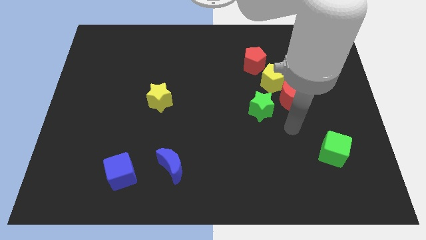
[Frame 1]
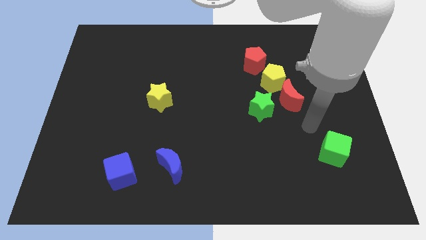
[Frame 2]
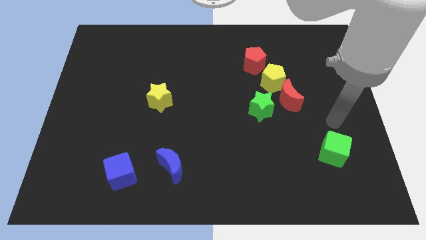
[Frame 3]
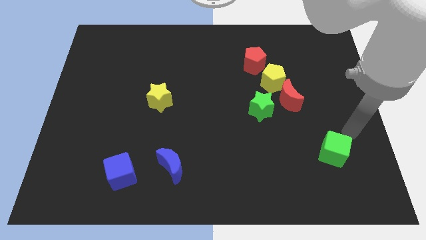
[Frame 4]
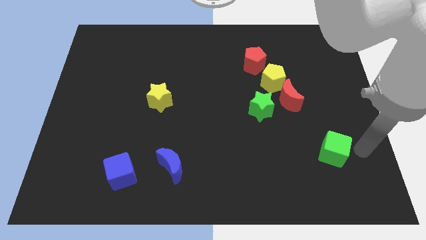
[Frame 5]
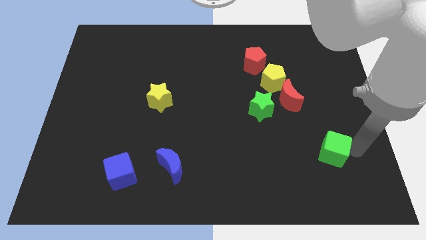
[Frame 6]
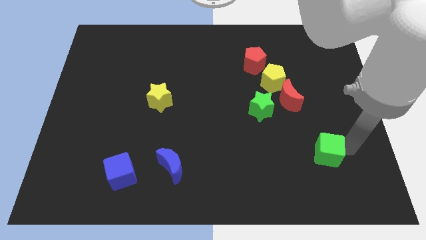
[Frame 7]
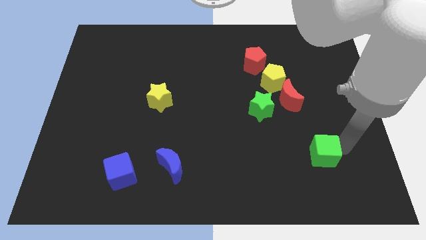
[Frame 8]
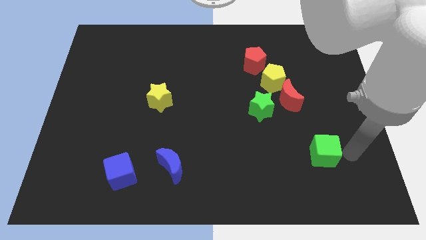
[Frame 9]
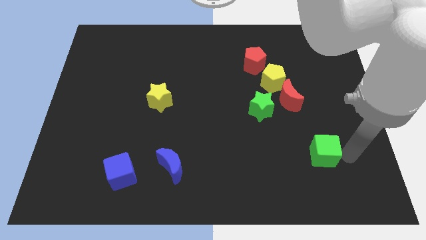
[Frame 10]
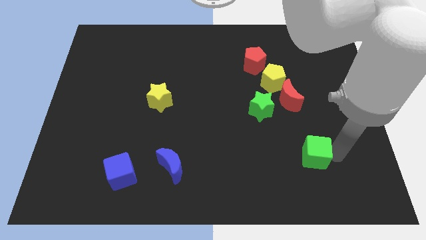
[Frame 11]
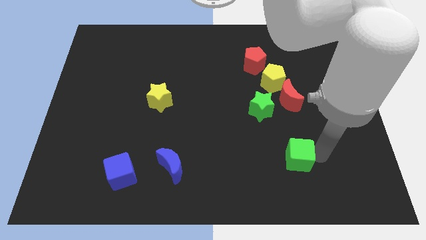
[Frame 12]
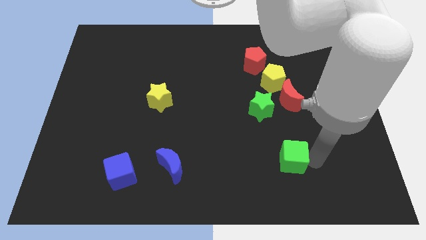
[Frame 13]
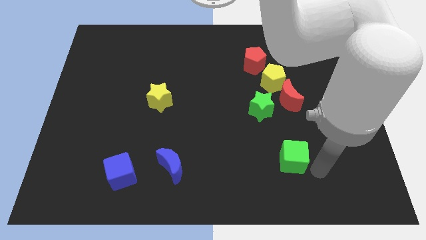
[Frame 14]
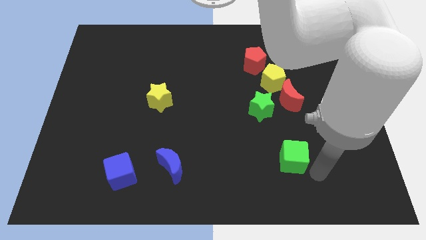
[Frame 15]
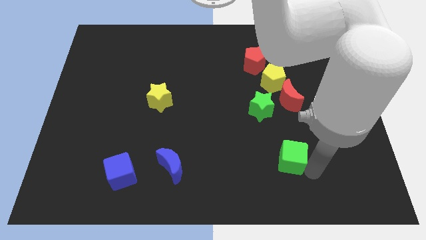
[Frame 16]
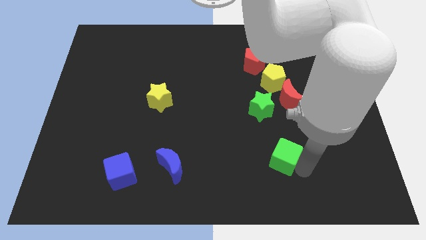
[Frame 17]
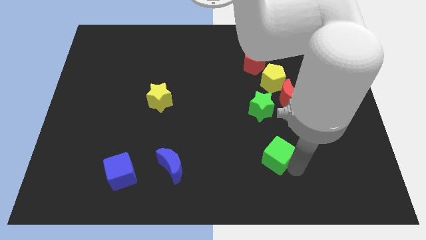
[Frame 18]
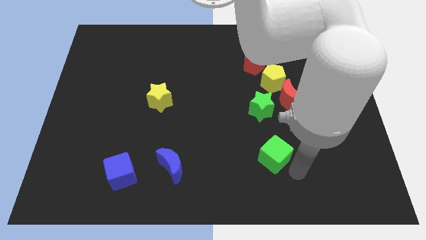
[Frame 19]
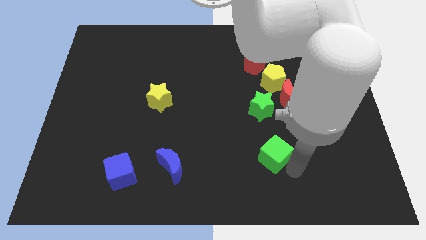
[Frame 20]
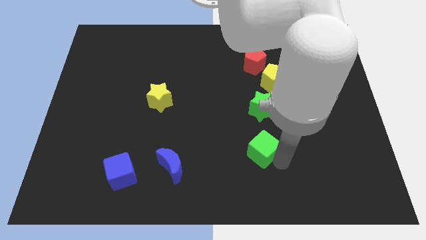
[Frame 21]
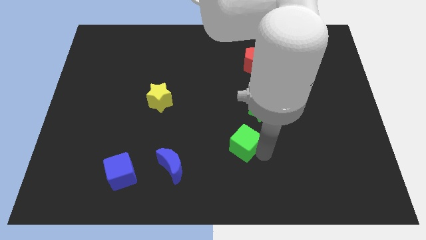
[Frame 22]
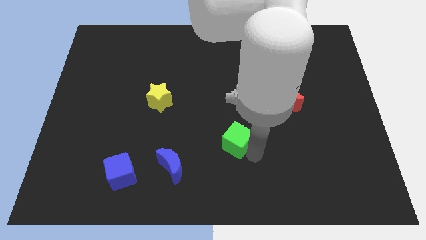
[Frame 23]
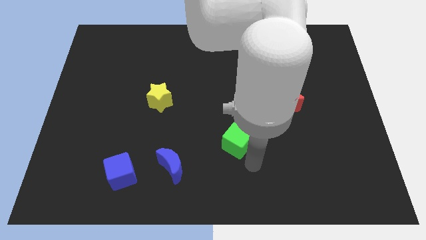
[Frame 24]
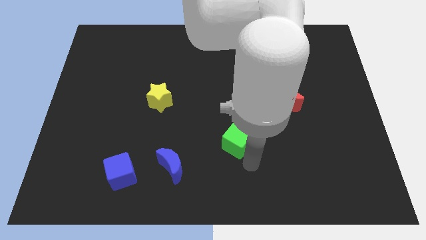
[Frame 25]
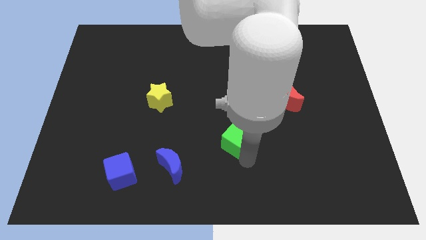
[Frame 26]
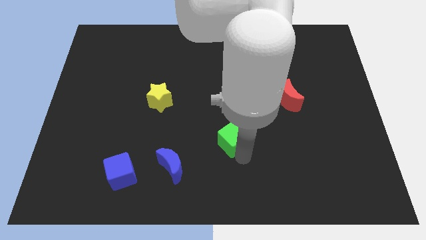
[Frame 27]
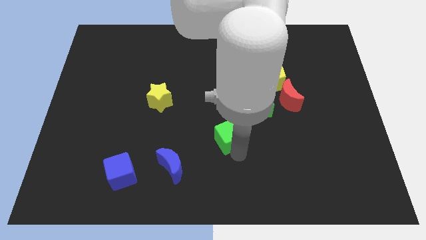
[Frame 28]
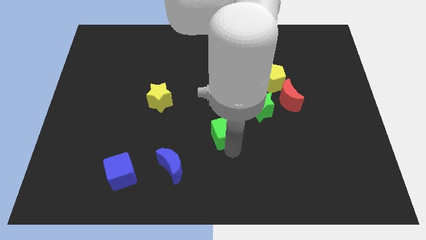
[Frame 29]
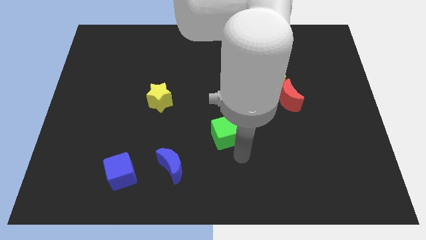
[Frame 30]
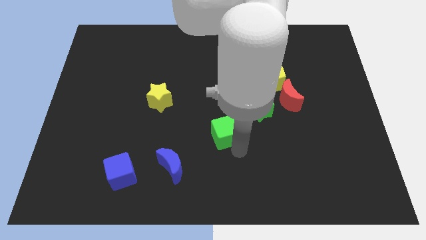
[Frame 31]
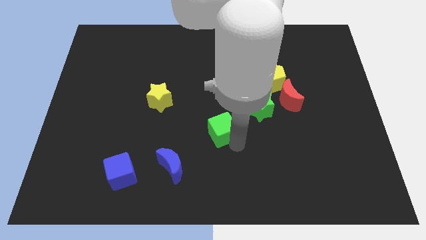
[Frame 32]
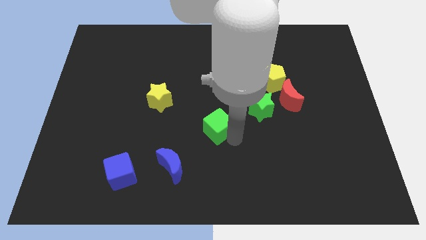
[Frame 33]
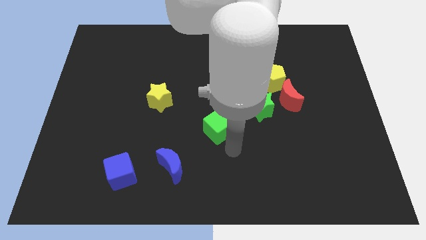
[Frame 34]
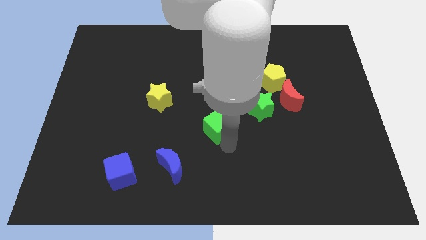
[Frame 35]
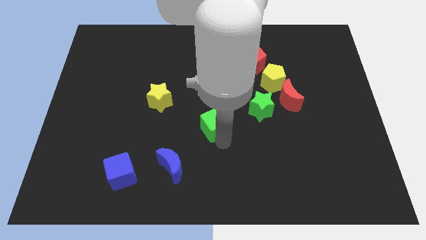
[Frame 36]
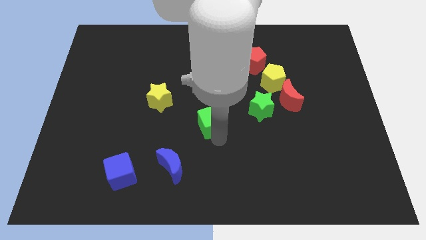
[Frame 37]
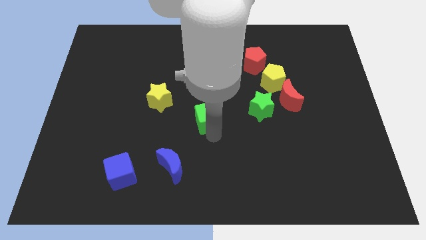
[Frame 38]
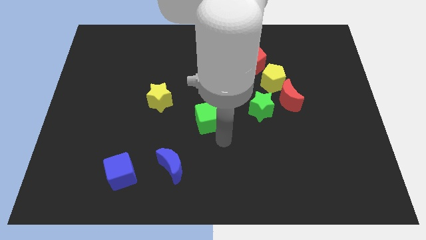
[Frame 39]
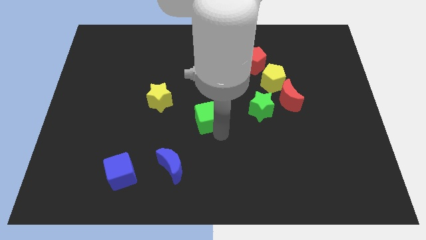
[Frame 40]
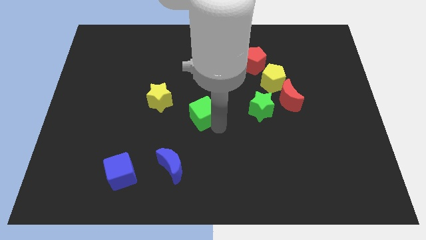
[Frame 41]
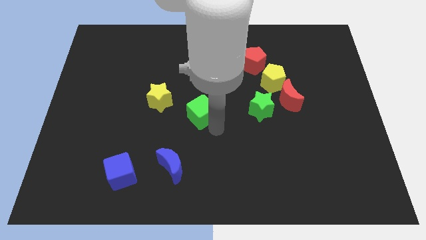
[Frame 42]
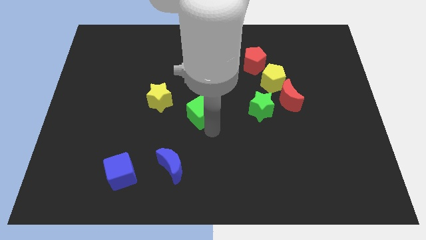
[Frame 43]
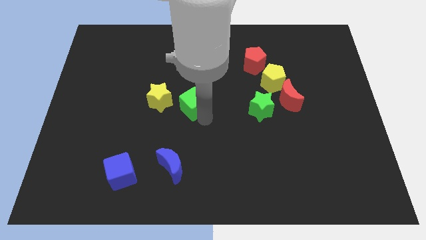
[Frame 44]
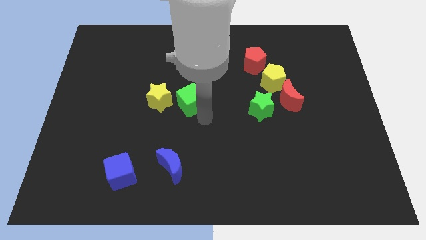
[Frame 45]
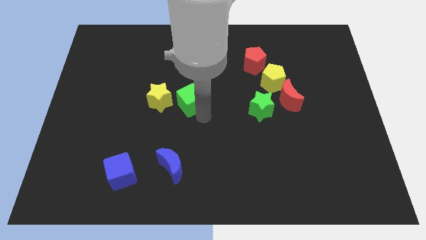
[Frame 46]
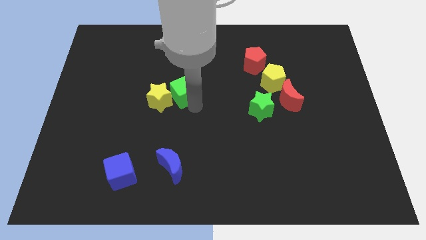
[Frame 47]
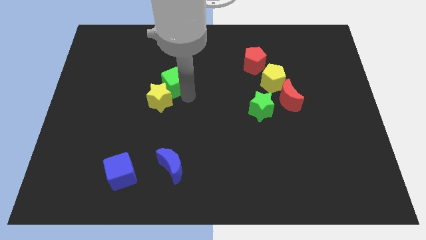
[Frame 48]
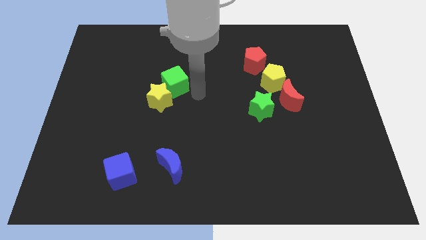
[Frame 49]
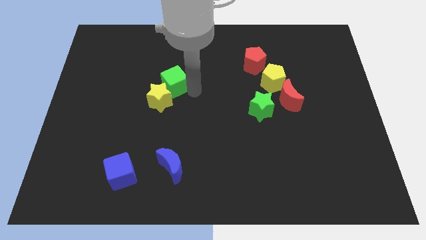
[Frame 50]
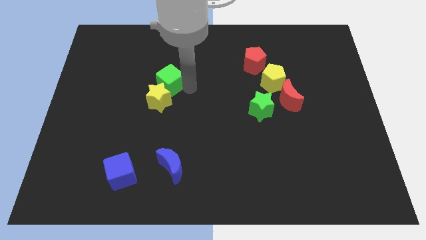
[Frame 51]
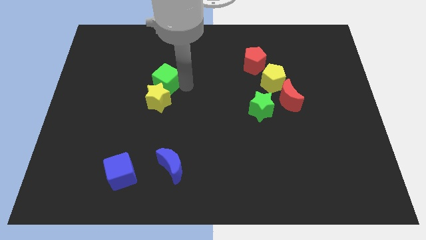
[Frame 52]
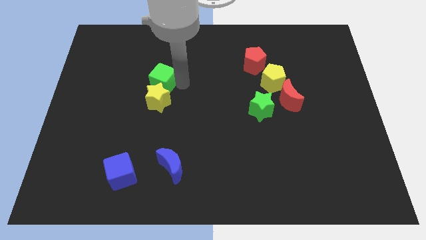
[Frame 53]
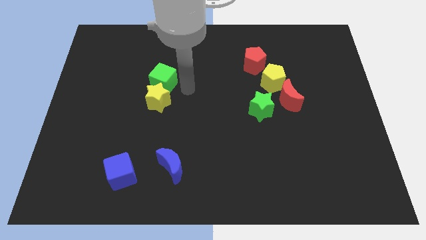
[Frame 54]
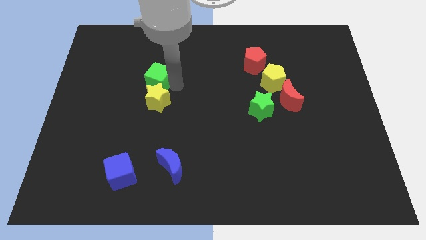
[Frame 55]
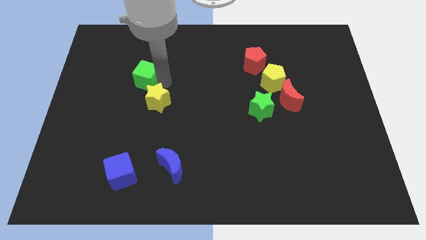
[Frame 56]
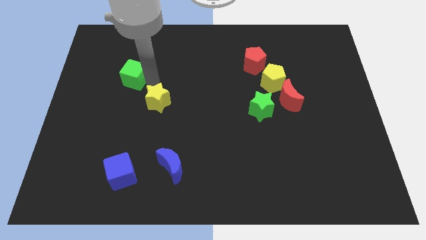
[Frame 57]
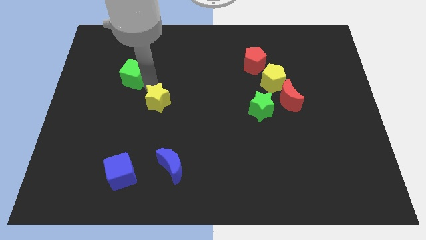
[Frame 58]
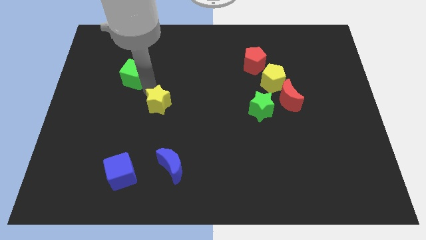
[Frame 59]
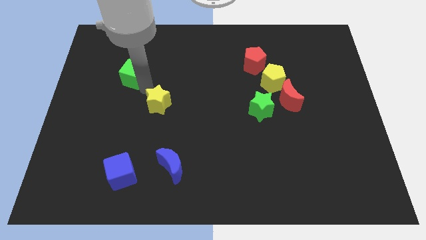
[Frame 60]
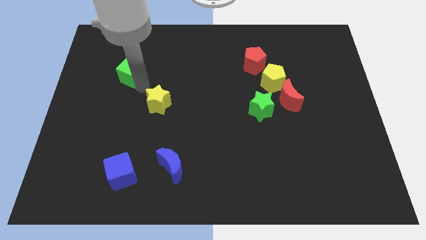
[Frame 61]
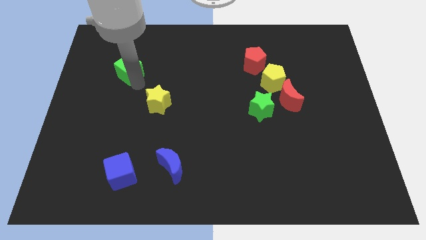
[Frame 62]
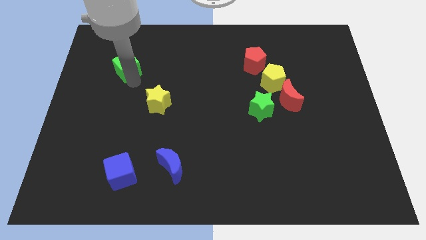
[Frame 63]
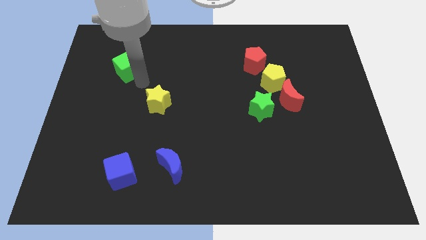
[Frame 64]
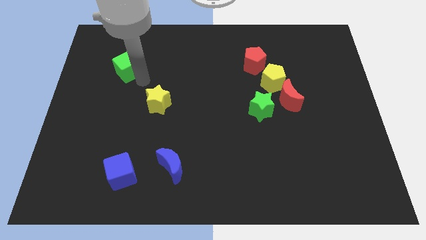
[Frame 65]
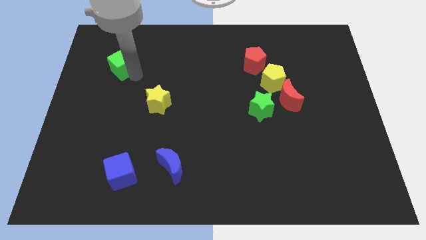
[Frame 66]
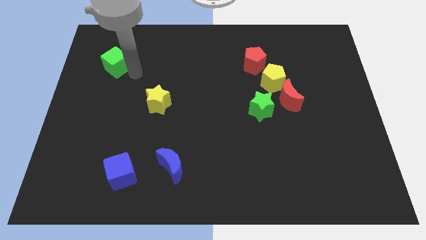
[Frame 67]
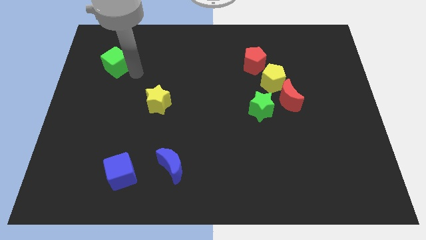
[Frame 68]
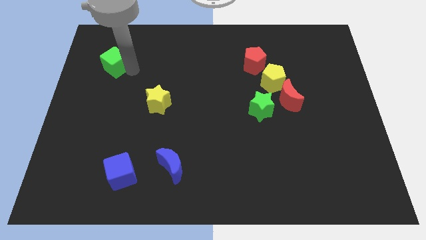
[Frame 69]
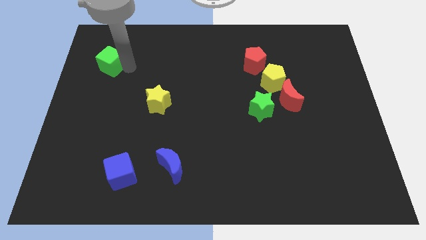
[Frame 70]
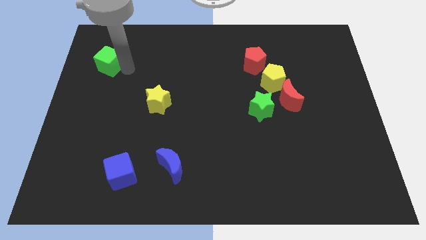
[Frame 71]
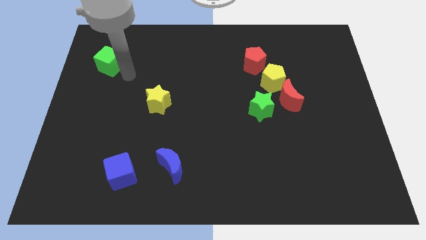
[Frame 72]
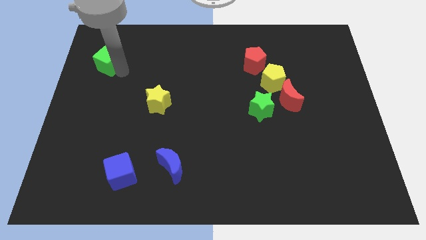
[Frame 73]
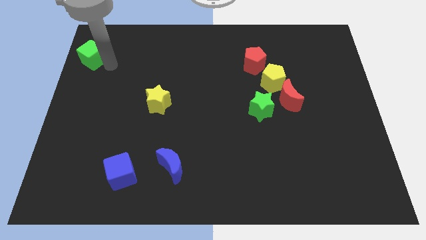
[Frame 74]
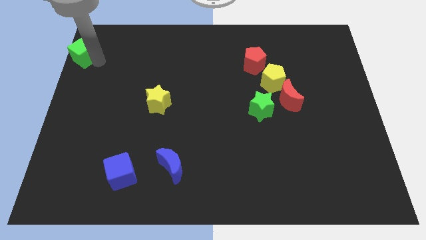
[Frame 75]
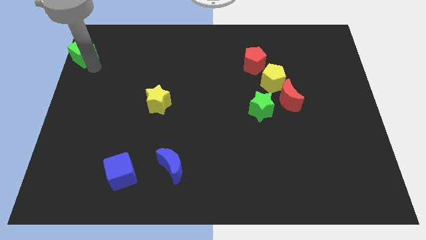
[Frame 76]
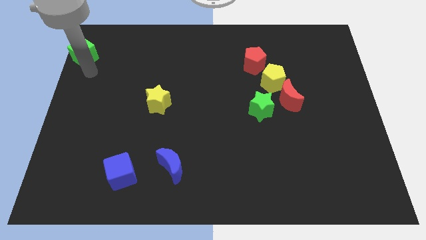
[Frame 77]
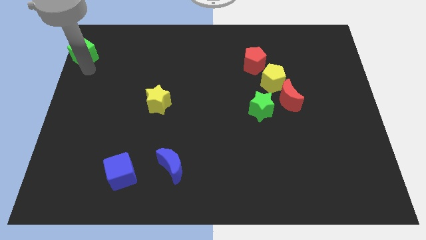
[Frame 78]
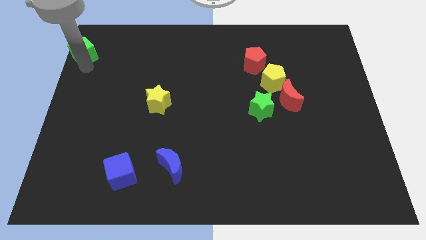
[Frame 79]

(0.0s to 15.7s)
put the green cube to the top left corner

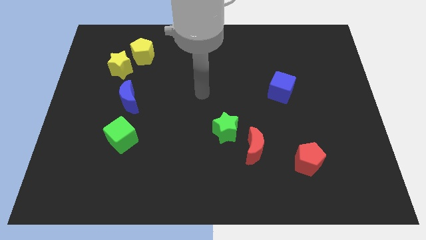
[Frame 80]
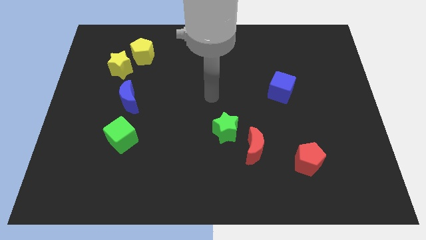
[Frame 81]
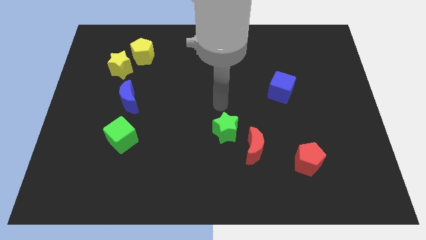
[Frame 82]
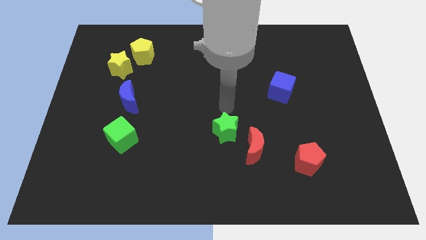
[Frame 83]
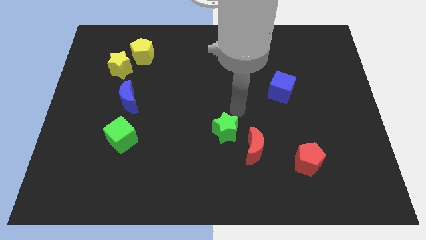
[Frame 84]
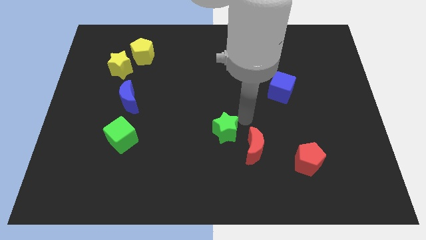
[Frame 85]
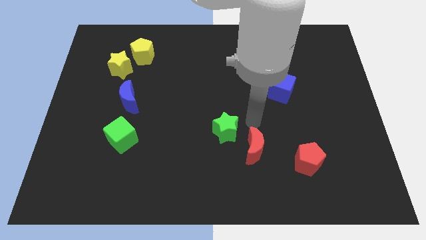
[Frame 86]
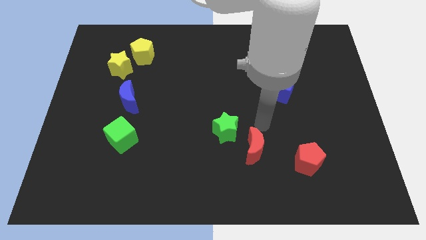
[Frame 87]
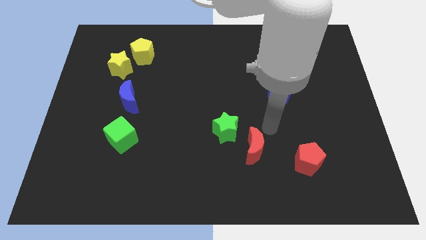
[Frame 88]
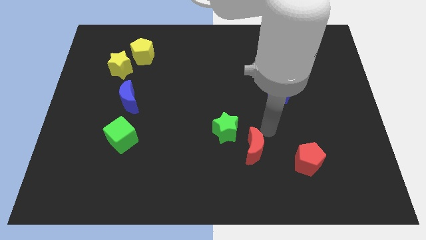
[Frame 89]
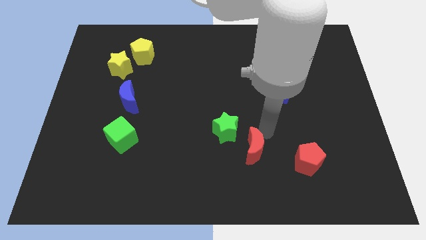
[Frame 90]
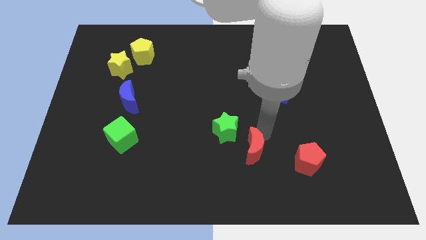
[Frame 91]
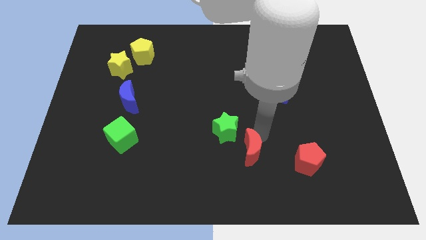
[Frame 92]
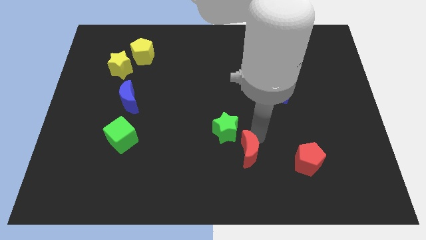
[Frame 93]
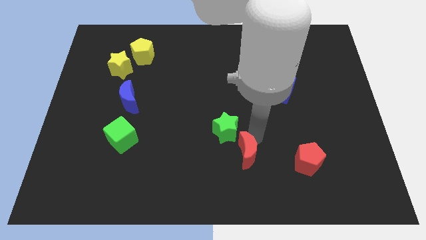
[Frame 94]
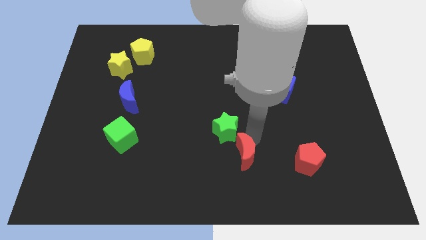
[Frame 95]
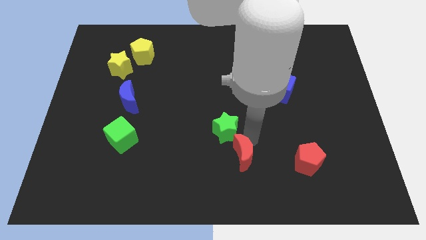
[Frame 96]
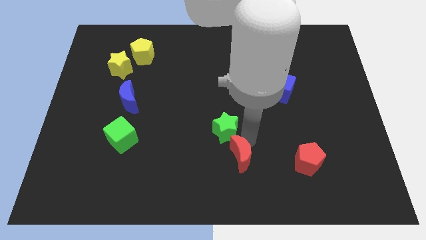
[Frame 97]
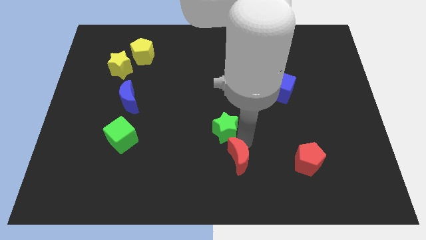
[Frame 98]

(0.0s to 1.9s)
push the red moon to the bottom
